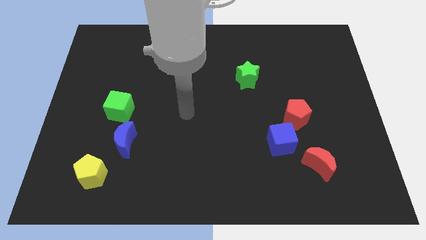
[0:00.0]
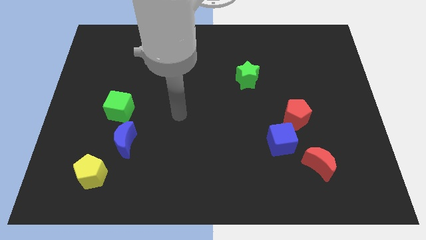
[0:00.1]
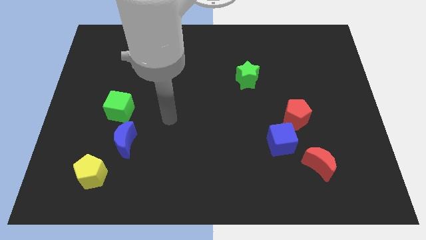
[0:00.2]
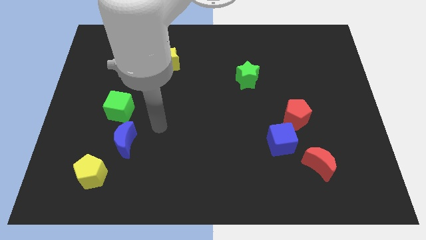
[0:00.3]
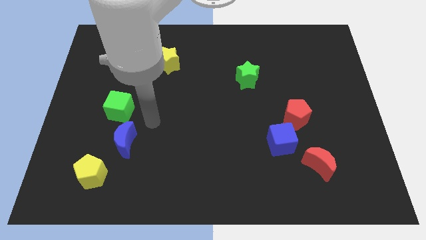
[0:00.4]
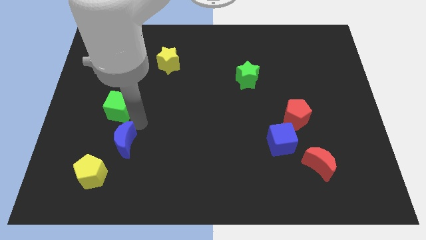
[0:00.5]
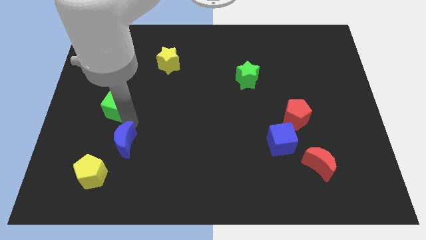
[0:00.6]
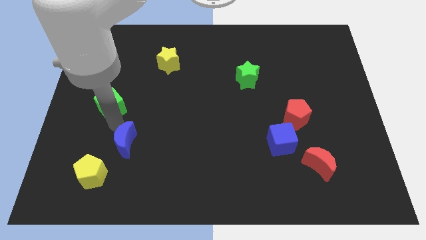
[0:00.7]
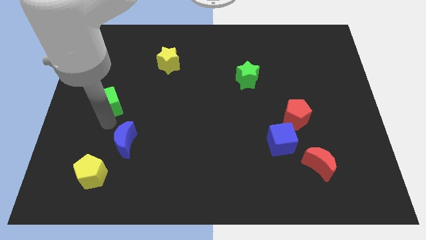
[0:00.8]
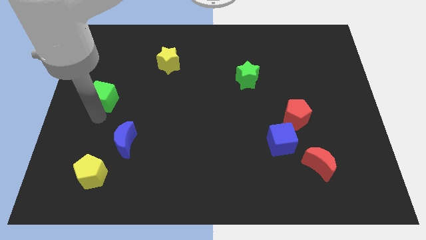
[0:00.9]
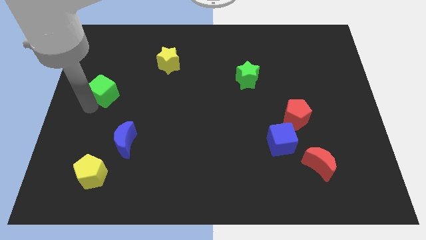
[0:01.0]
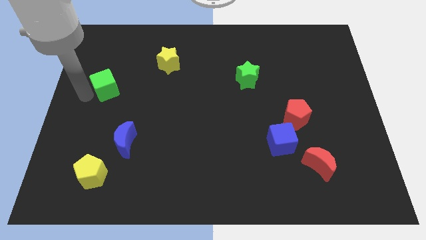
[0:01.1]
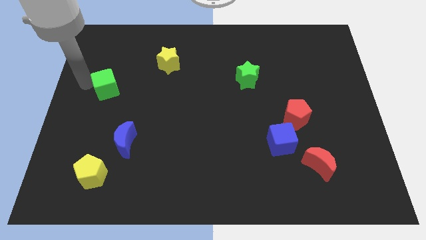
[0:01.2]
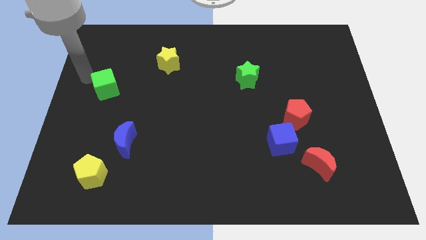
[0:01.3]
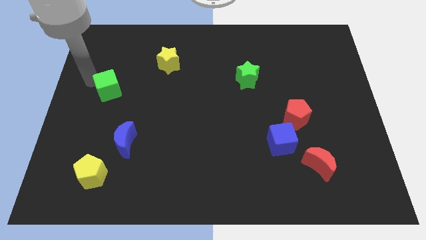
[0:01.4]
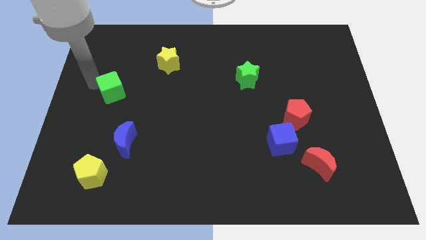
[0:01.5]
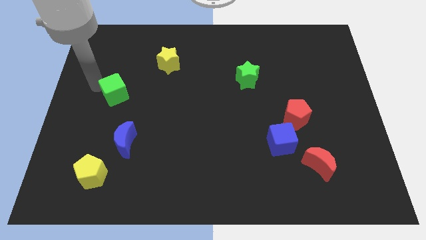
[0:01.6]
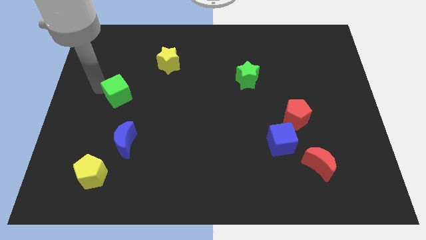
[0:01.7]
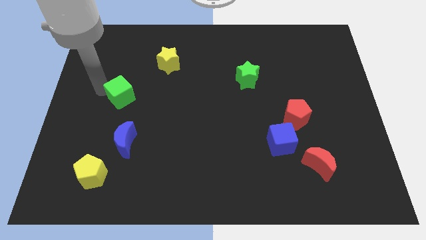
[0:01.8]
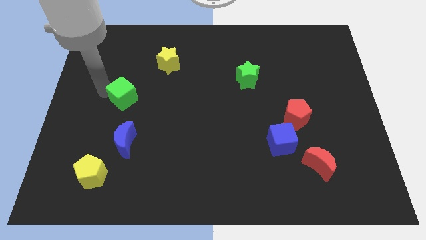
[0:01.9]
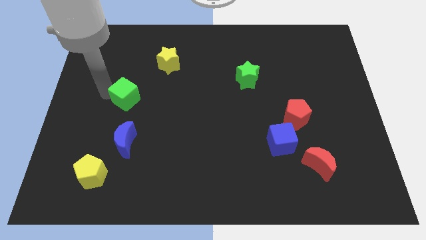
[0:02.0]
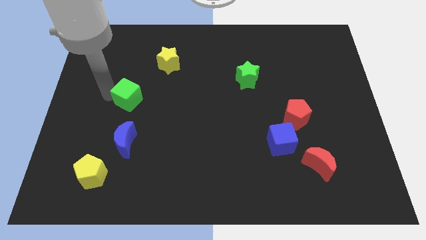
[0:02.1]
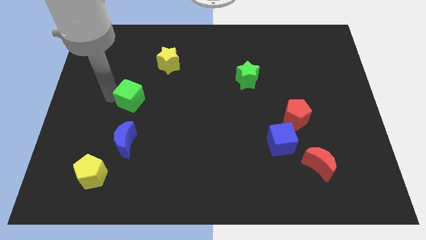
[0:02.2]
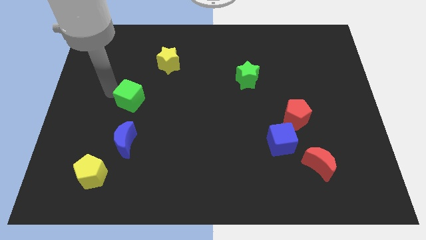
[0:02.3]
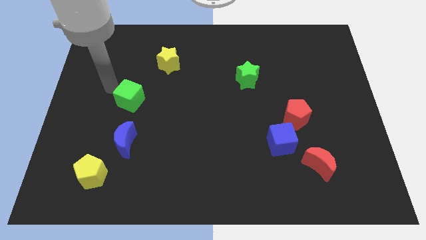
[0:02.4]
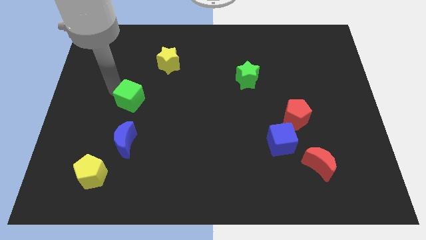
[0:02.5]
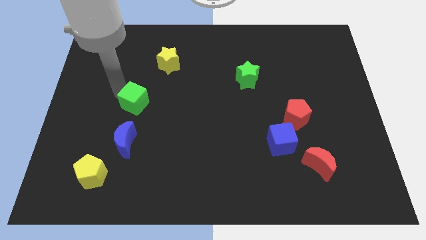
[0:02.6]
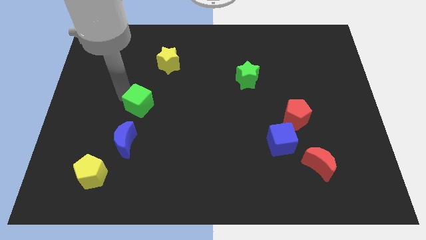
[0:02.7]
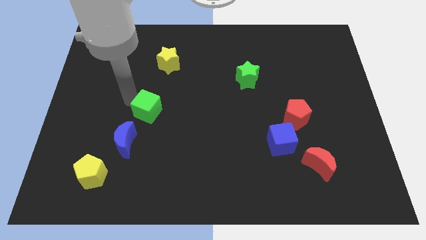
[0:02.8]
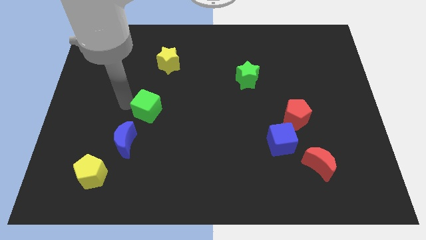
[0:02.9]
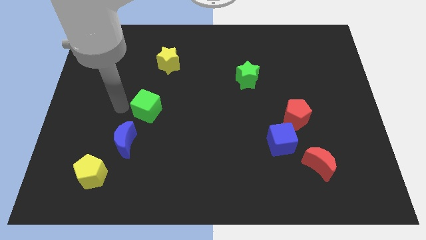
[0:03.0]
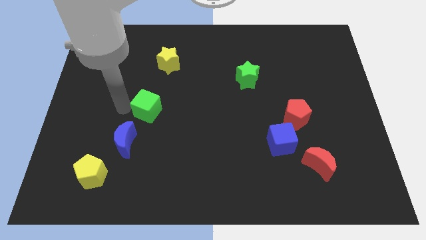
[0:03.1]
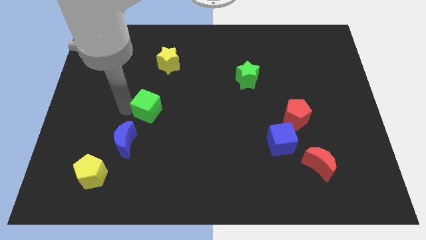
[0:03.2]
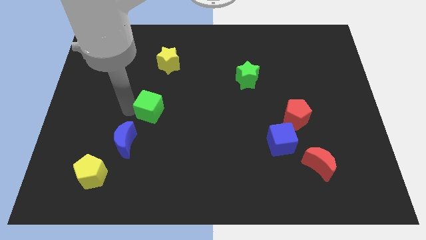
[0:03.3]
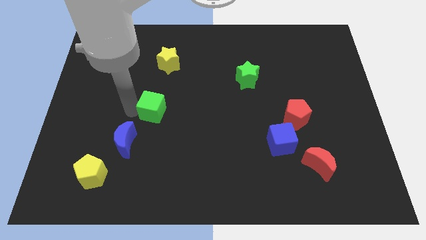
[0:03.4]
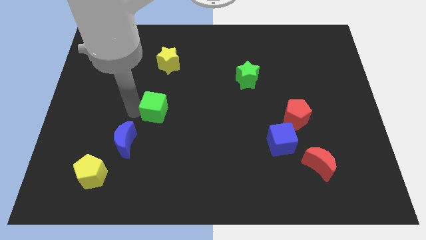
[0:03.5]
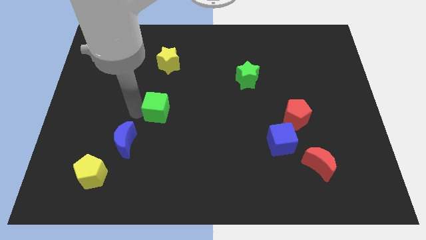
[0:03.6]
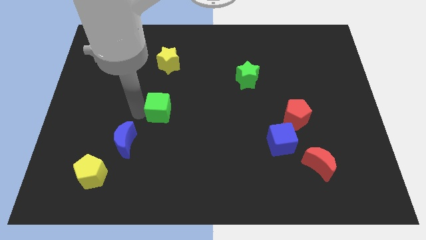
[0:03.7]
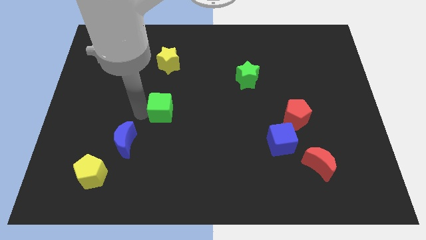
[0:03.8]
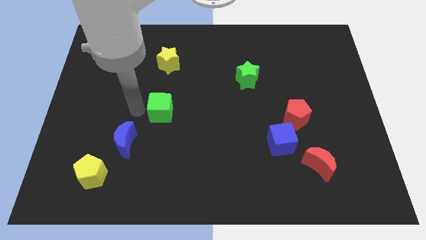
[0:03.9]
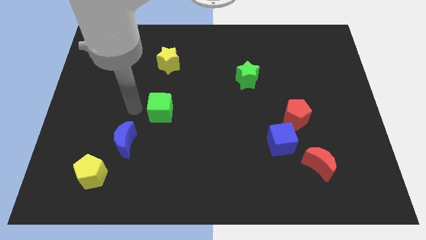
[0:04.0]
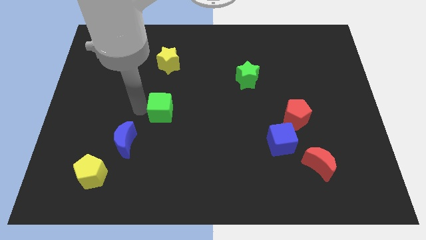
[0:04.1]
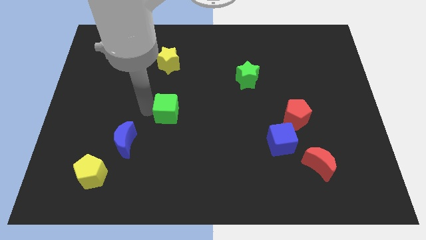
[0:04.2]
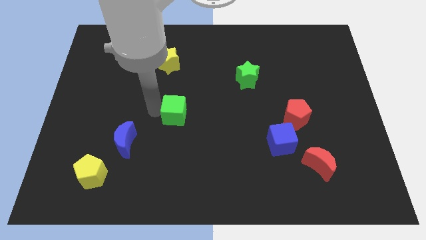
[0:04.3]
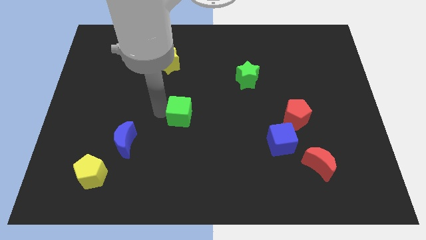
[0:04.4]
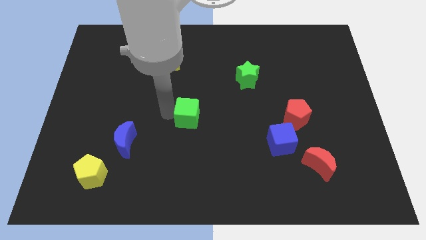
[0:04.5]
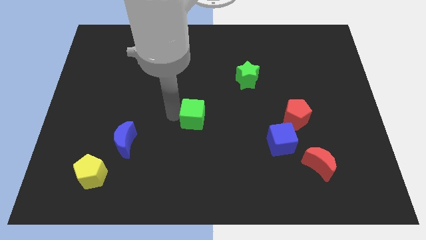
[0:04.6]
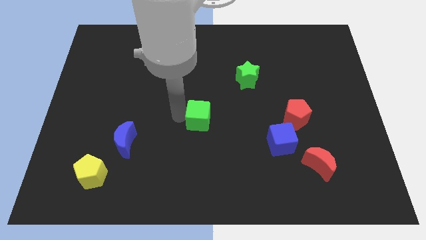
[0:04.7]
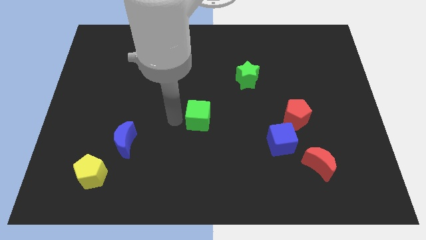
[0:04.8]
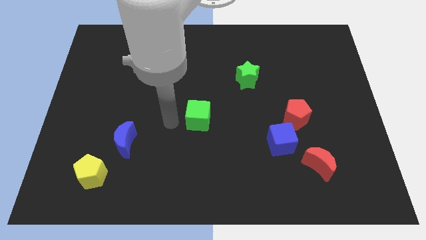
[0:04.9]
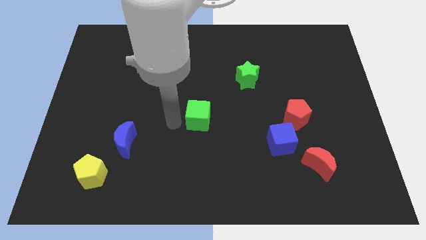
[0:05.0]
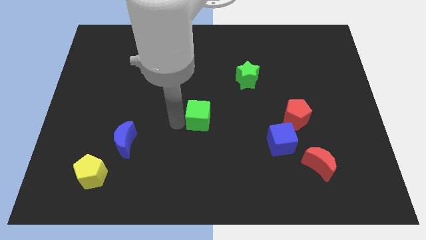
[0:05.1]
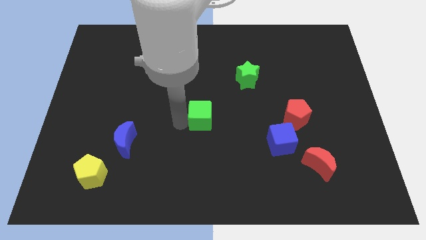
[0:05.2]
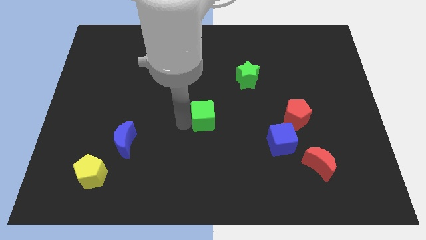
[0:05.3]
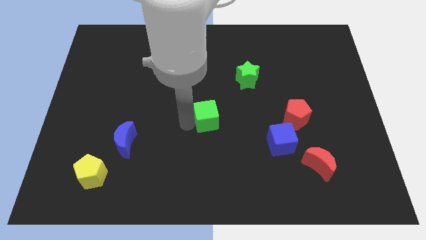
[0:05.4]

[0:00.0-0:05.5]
move the green cube right

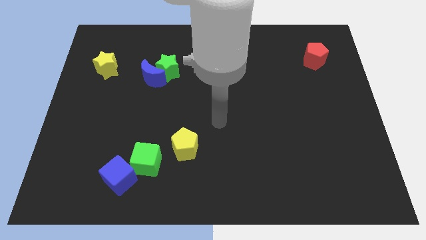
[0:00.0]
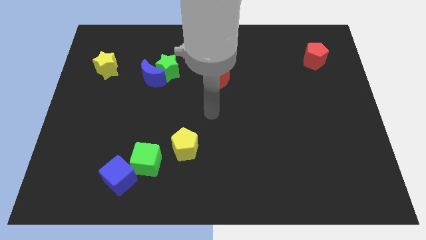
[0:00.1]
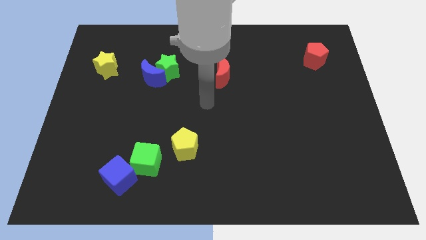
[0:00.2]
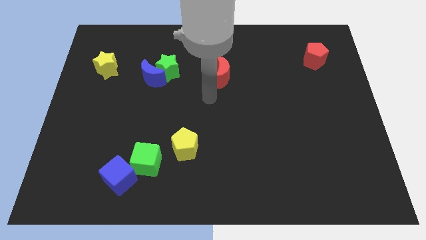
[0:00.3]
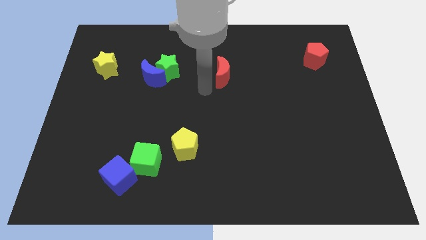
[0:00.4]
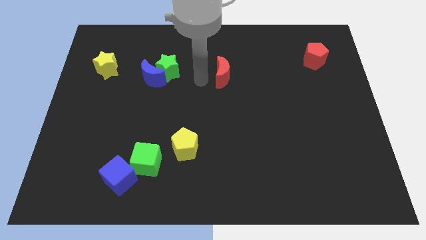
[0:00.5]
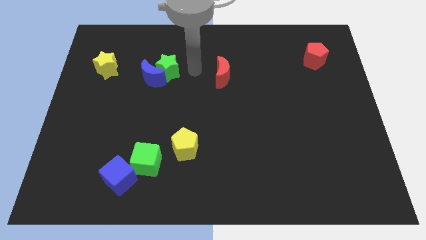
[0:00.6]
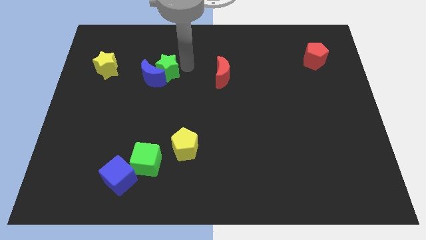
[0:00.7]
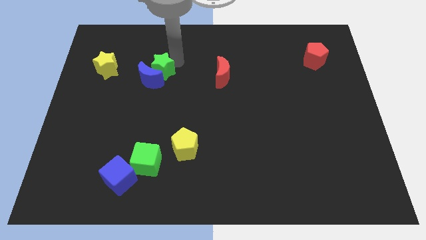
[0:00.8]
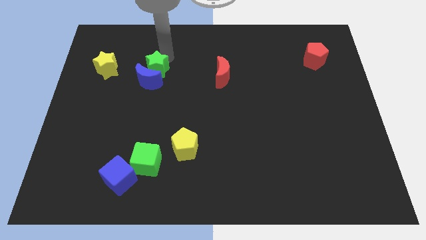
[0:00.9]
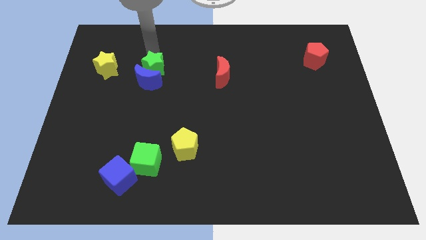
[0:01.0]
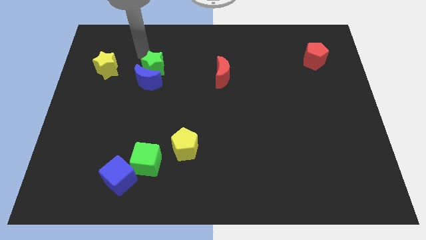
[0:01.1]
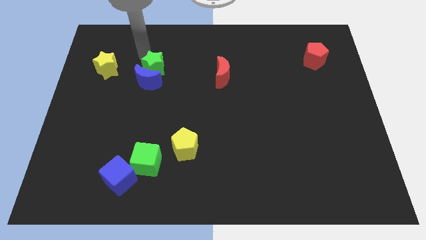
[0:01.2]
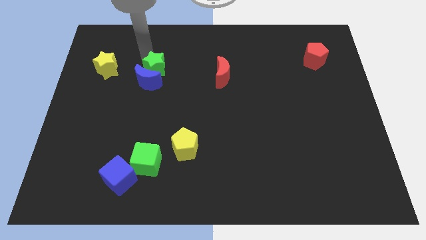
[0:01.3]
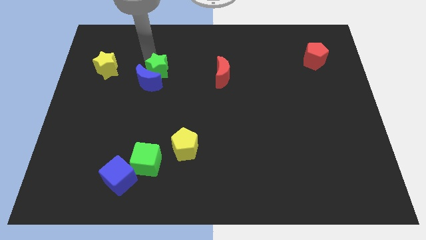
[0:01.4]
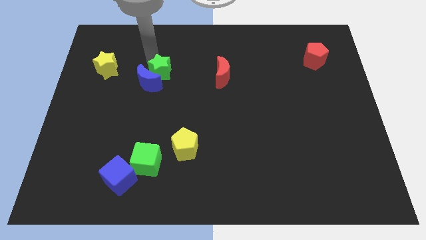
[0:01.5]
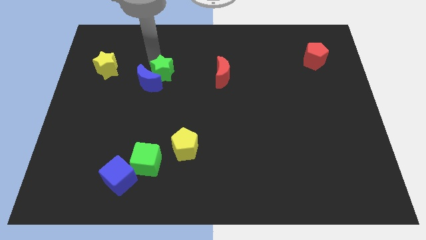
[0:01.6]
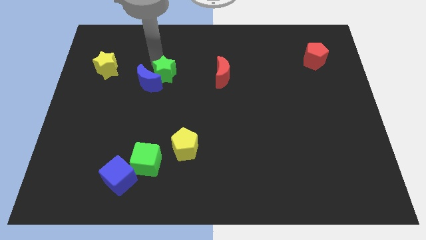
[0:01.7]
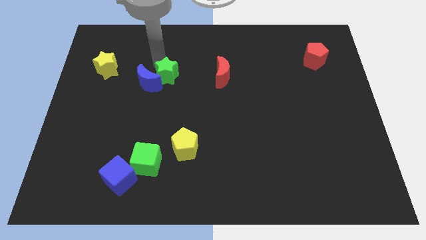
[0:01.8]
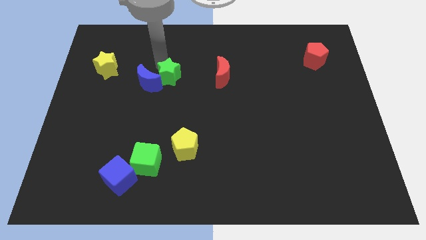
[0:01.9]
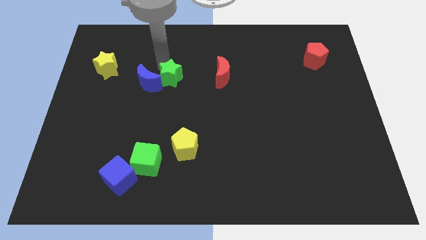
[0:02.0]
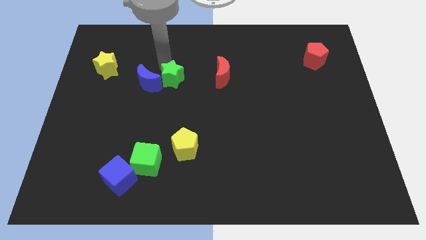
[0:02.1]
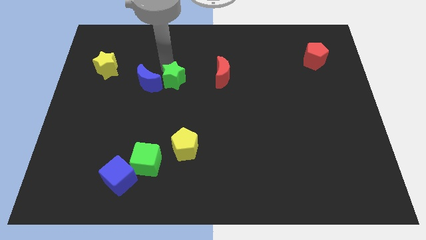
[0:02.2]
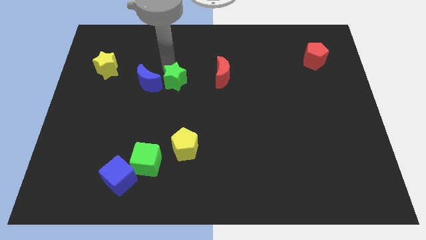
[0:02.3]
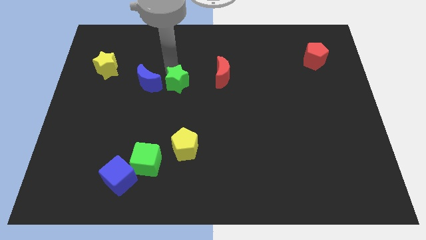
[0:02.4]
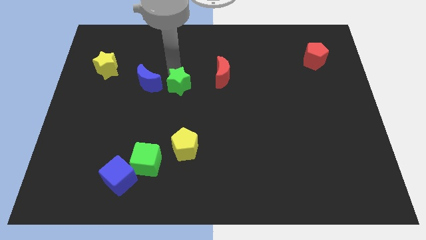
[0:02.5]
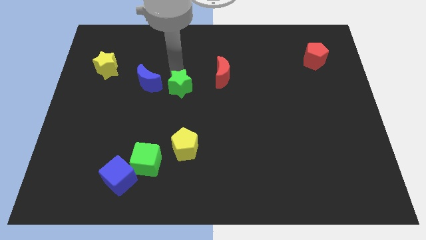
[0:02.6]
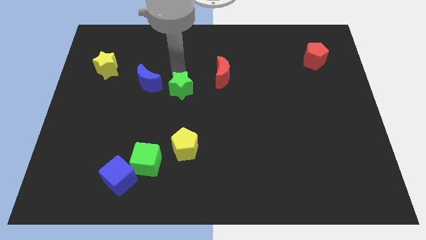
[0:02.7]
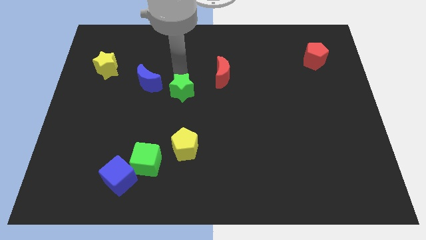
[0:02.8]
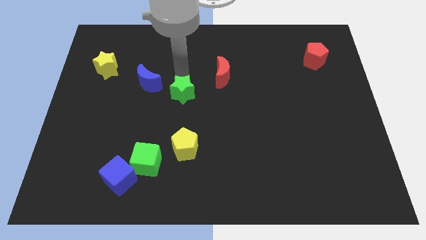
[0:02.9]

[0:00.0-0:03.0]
slide the green star a little down
